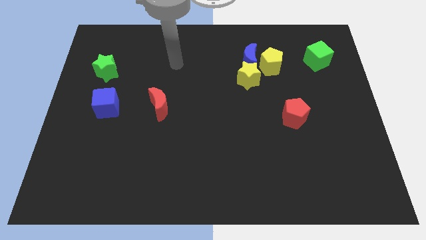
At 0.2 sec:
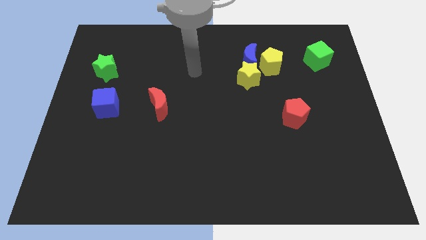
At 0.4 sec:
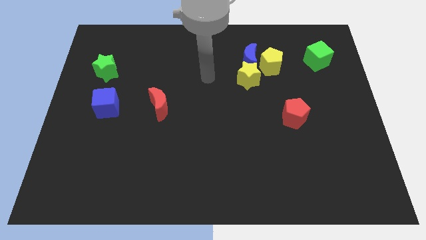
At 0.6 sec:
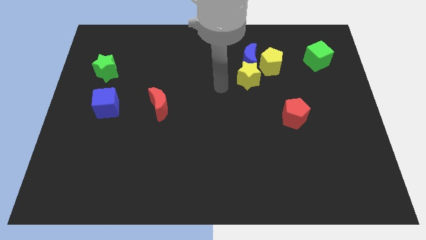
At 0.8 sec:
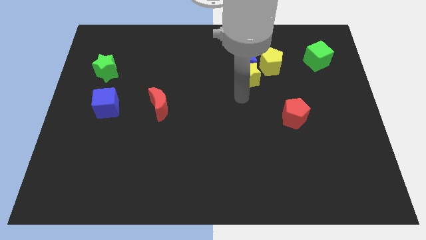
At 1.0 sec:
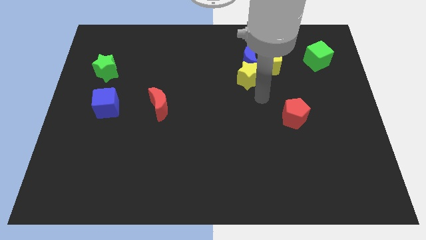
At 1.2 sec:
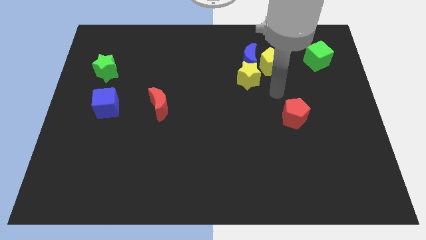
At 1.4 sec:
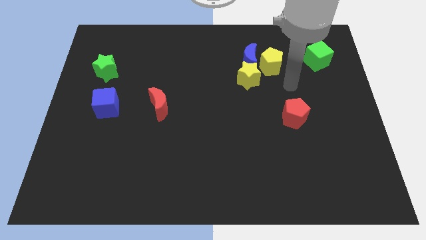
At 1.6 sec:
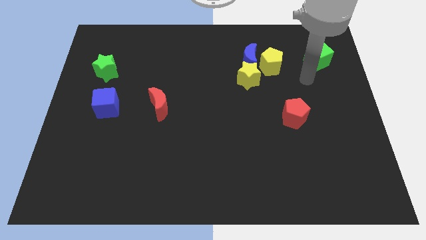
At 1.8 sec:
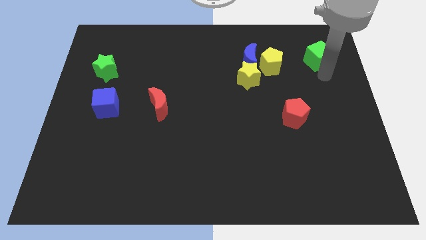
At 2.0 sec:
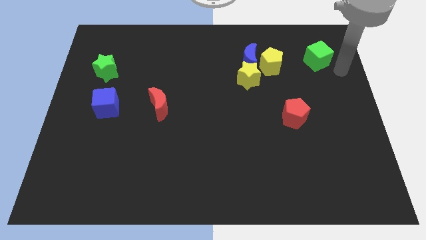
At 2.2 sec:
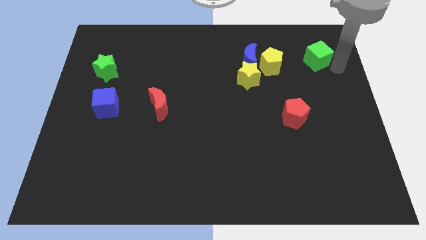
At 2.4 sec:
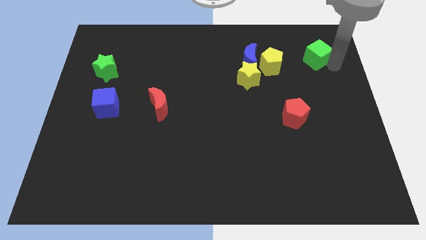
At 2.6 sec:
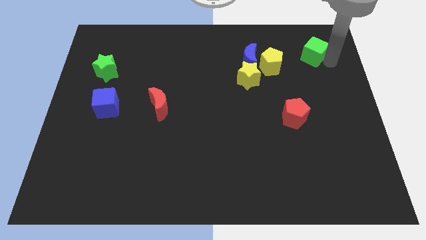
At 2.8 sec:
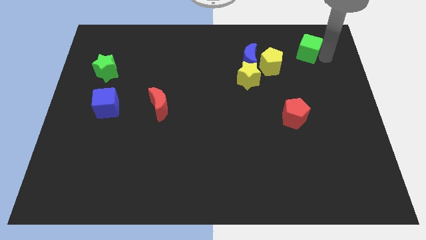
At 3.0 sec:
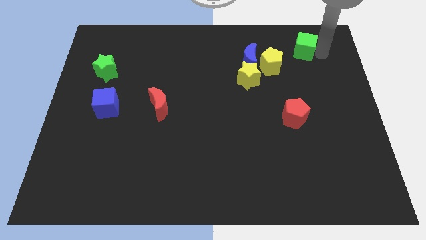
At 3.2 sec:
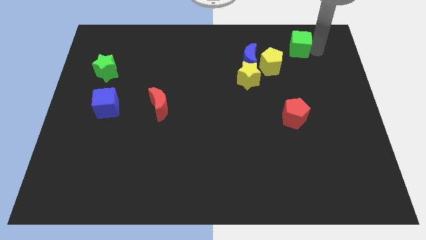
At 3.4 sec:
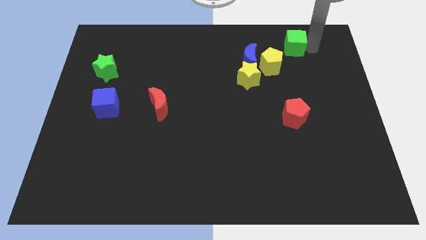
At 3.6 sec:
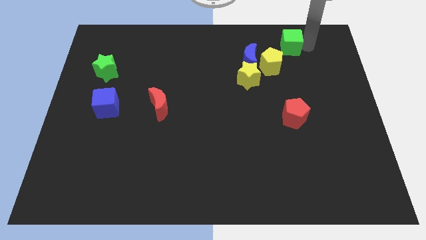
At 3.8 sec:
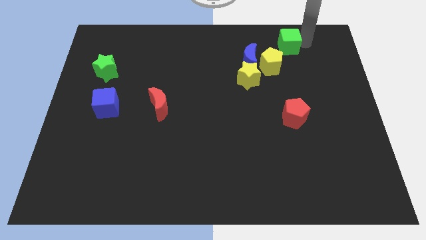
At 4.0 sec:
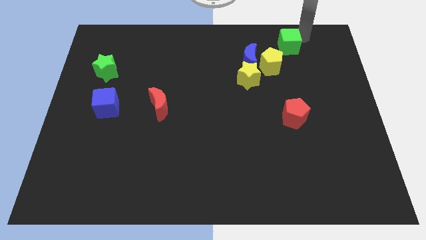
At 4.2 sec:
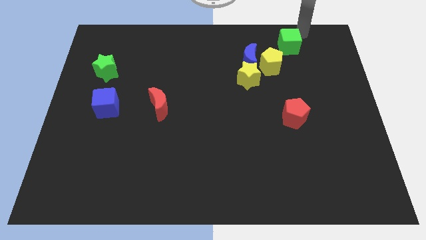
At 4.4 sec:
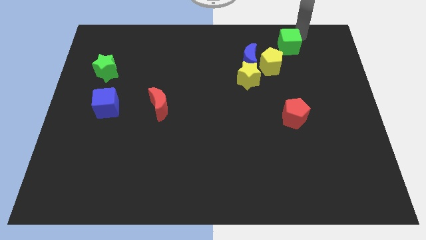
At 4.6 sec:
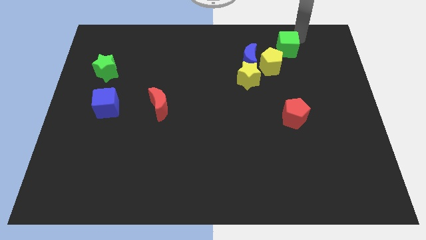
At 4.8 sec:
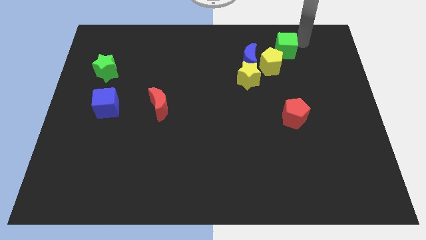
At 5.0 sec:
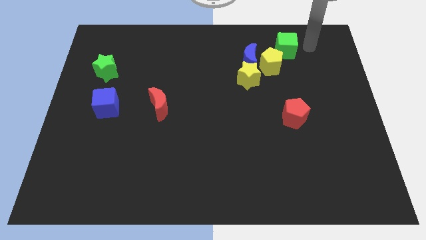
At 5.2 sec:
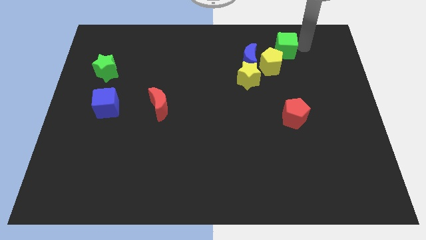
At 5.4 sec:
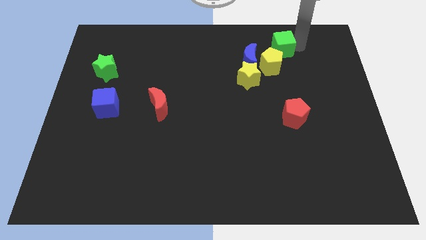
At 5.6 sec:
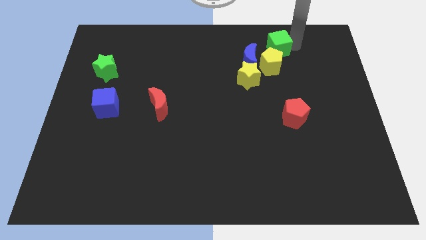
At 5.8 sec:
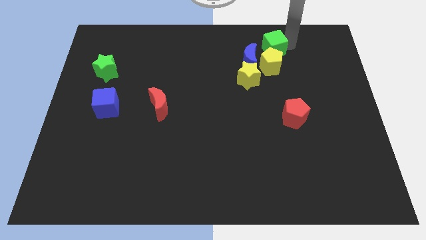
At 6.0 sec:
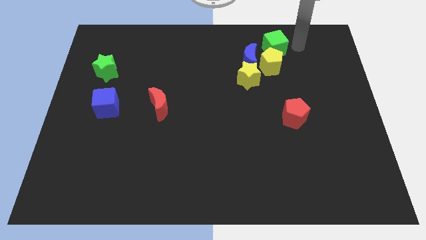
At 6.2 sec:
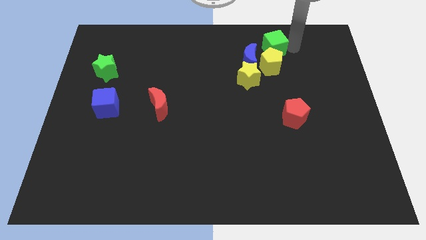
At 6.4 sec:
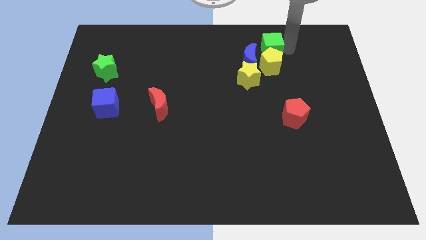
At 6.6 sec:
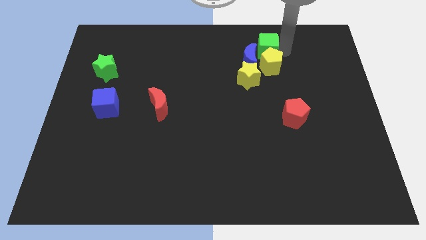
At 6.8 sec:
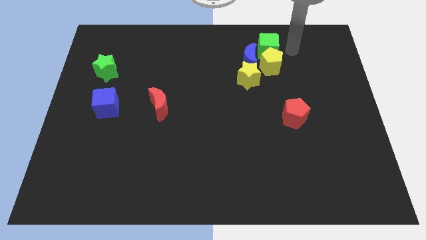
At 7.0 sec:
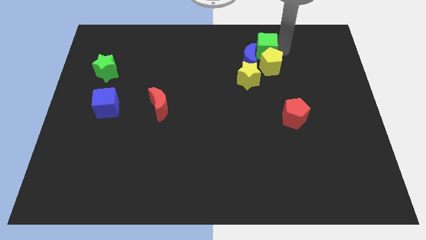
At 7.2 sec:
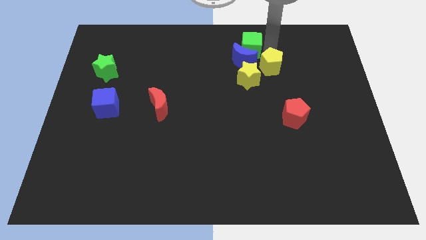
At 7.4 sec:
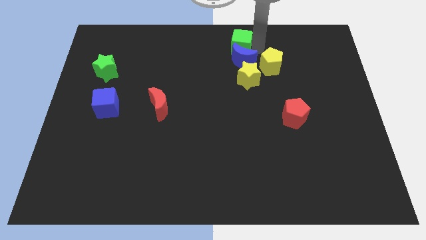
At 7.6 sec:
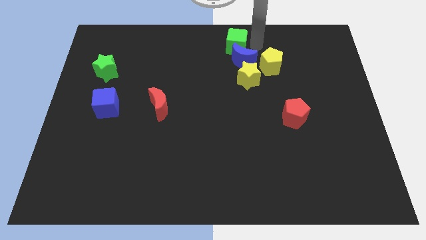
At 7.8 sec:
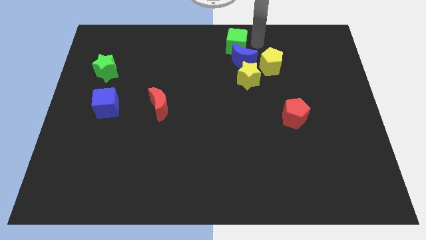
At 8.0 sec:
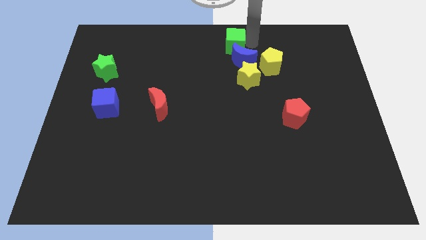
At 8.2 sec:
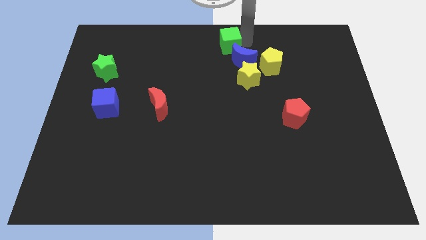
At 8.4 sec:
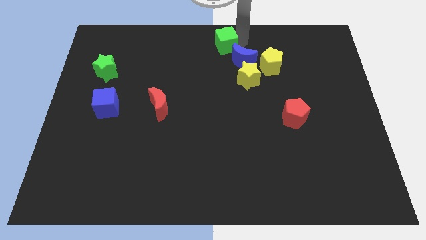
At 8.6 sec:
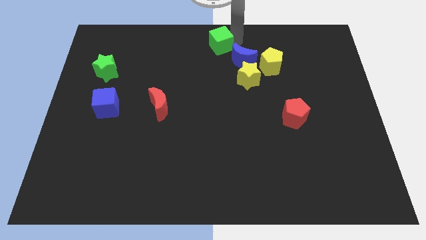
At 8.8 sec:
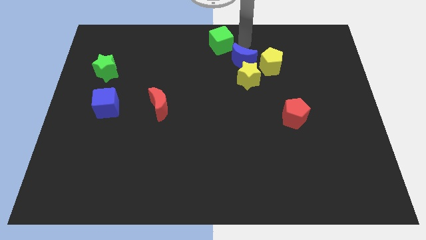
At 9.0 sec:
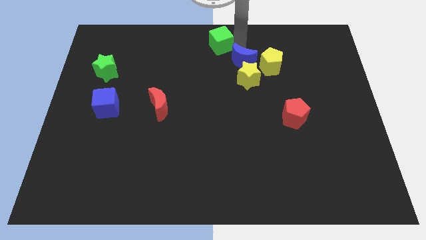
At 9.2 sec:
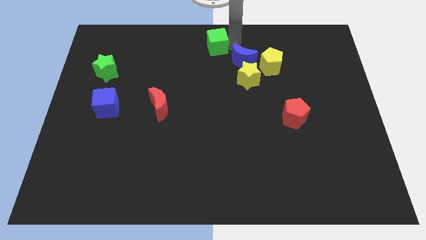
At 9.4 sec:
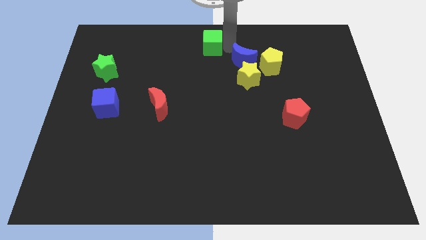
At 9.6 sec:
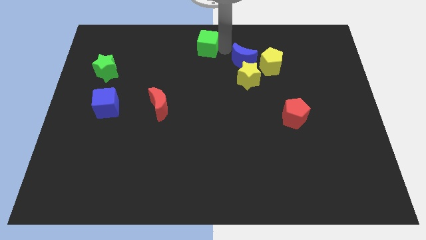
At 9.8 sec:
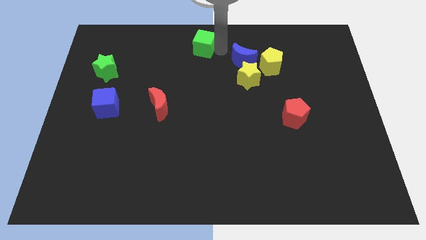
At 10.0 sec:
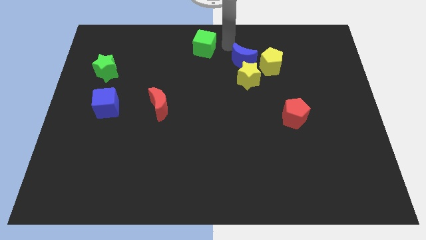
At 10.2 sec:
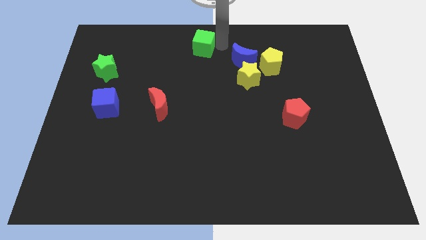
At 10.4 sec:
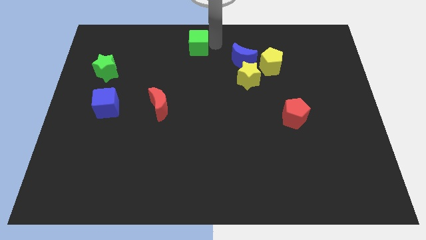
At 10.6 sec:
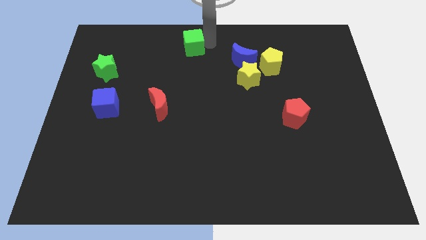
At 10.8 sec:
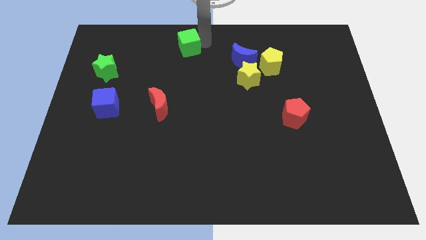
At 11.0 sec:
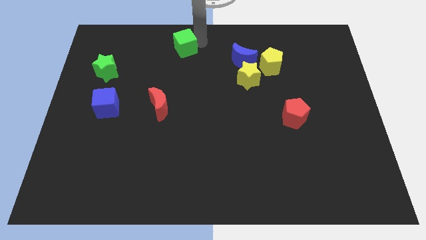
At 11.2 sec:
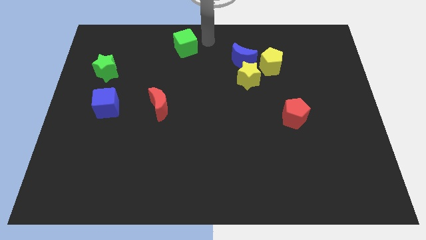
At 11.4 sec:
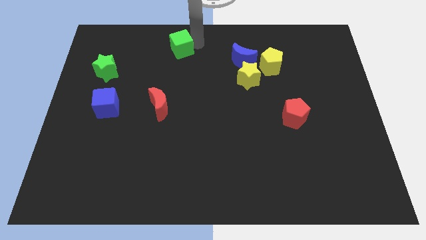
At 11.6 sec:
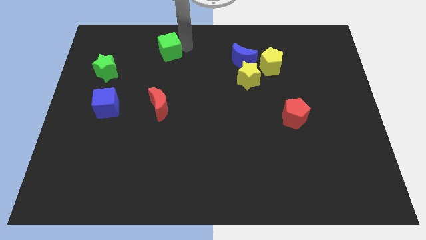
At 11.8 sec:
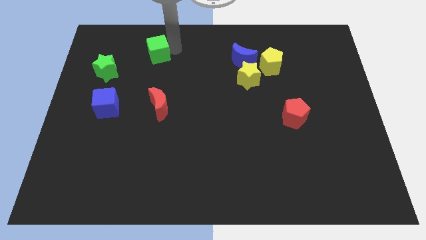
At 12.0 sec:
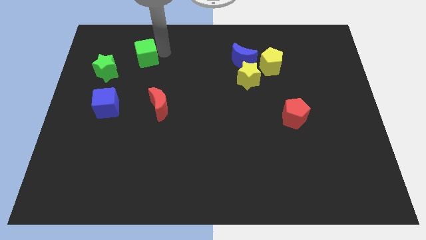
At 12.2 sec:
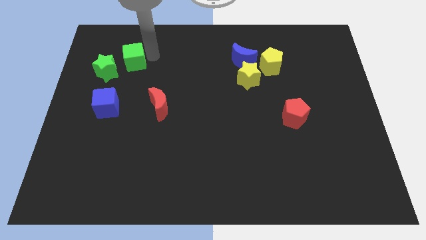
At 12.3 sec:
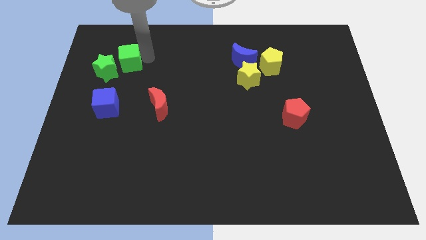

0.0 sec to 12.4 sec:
move the green cube to the top side of the blue cube

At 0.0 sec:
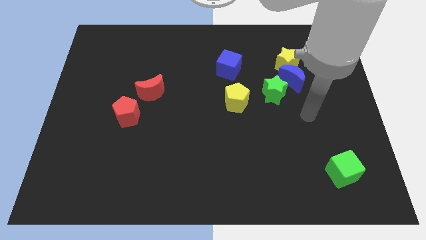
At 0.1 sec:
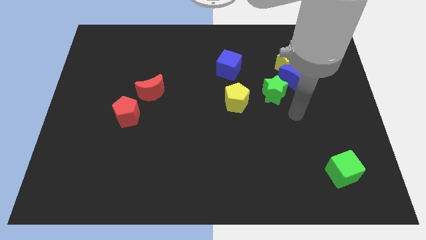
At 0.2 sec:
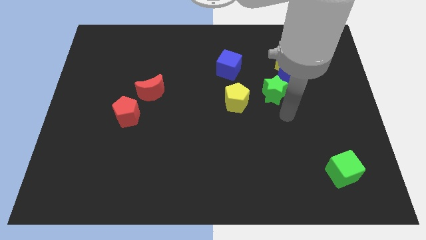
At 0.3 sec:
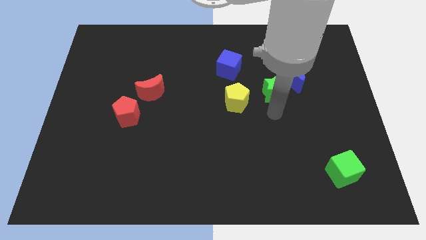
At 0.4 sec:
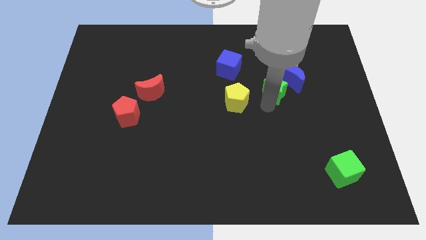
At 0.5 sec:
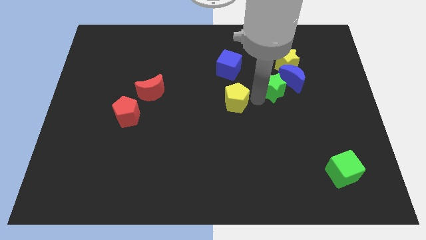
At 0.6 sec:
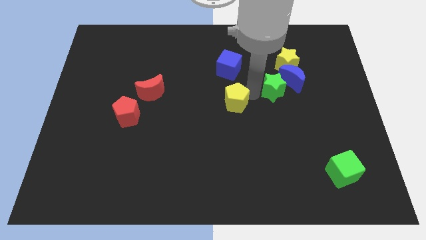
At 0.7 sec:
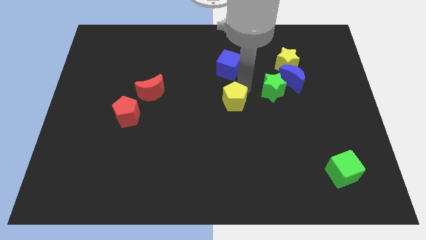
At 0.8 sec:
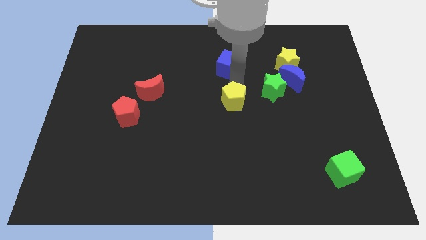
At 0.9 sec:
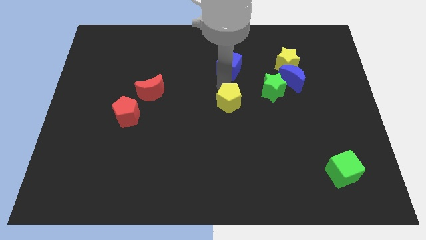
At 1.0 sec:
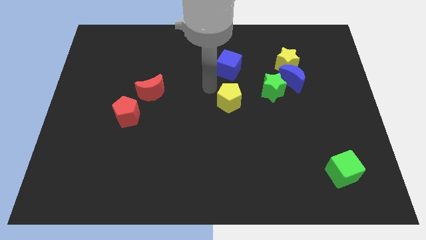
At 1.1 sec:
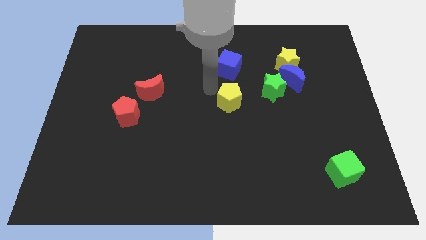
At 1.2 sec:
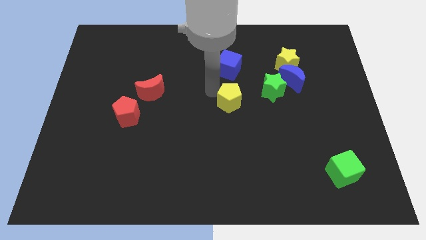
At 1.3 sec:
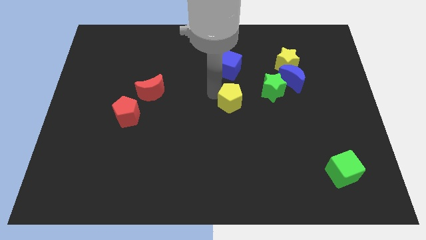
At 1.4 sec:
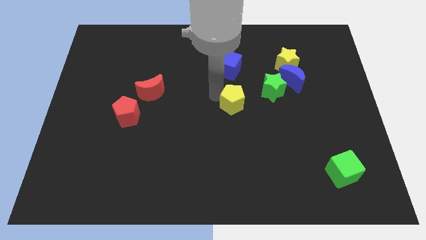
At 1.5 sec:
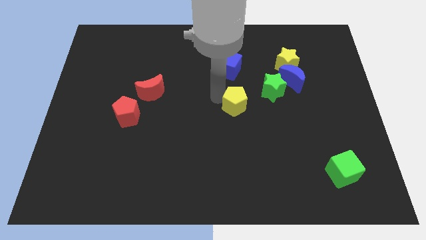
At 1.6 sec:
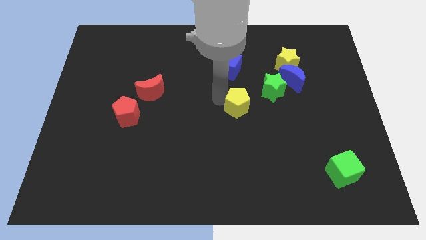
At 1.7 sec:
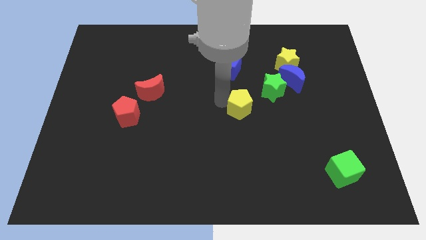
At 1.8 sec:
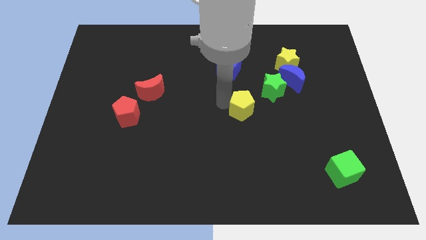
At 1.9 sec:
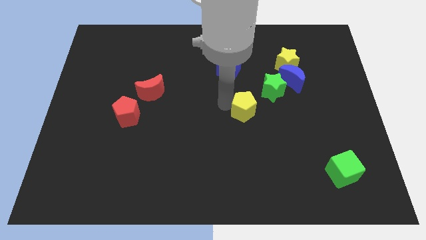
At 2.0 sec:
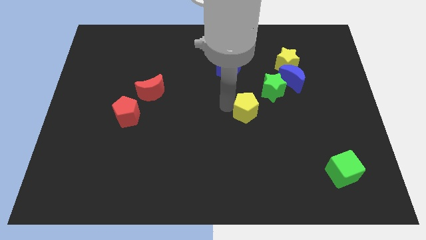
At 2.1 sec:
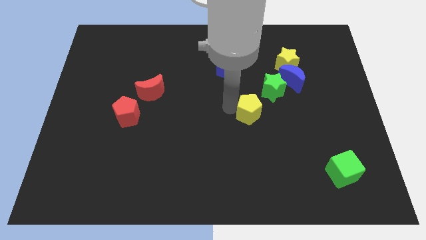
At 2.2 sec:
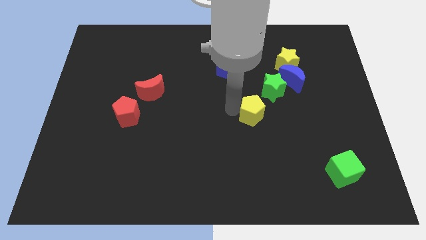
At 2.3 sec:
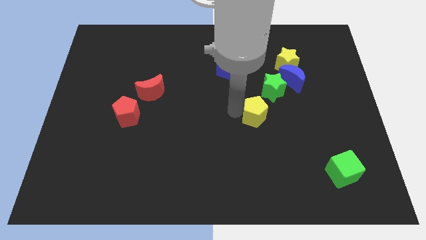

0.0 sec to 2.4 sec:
slide the yellow pentagon to the bottom side of the green star
